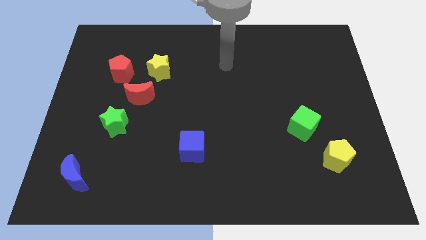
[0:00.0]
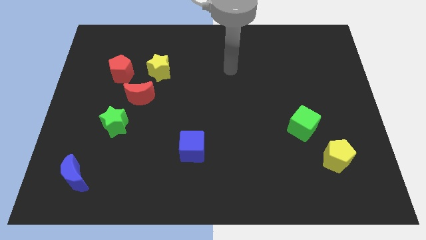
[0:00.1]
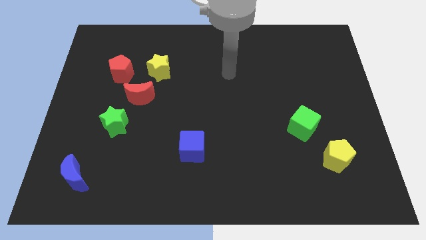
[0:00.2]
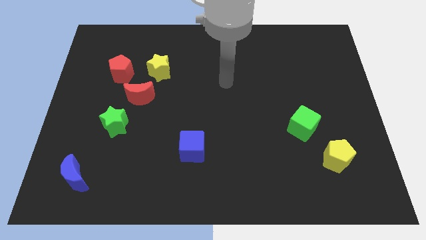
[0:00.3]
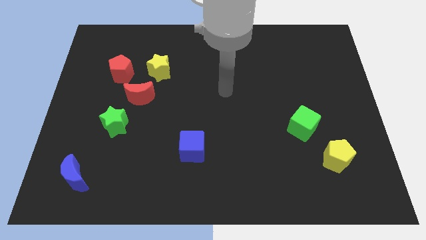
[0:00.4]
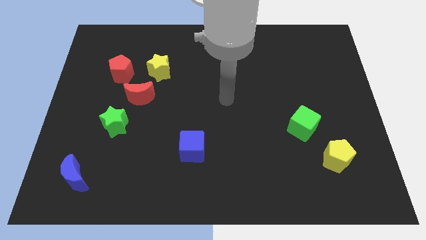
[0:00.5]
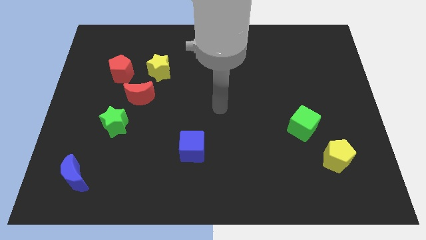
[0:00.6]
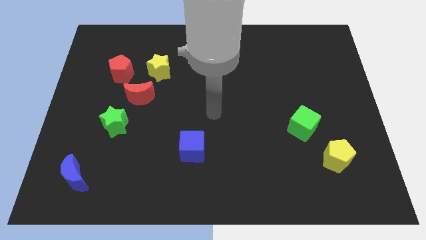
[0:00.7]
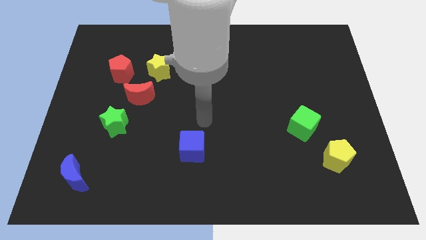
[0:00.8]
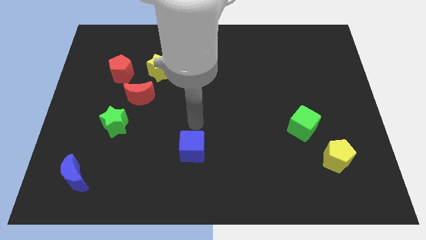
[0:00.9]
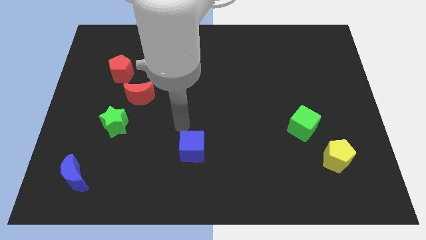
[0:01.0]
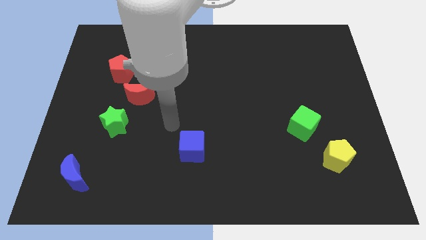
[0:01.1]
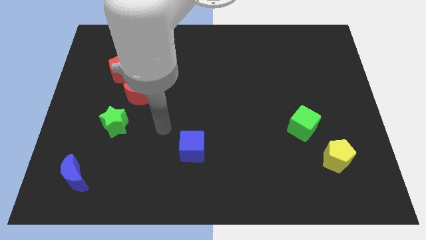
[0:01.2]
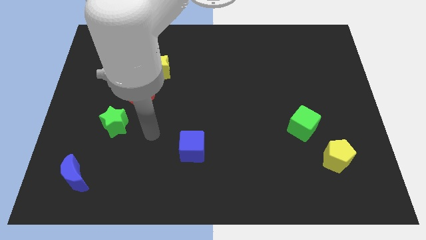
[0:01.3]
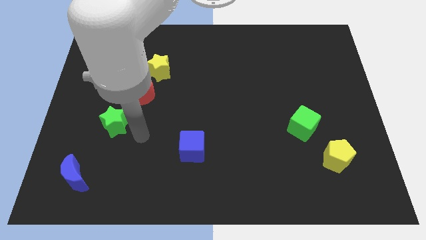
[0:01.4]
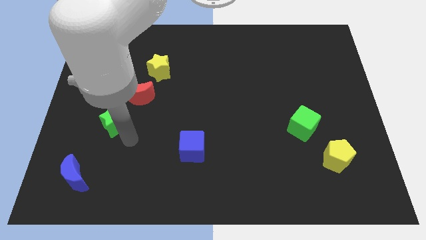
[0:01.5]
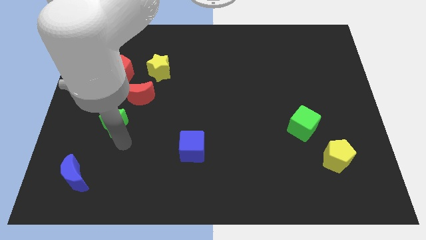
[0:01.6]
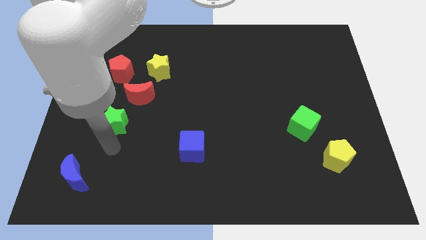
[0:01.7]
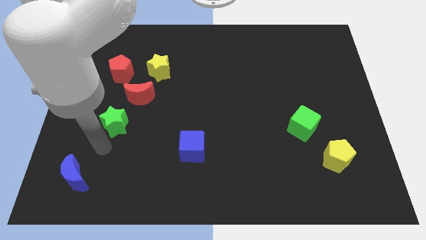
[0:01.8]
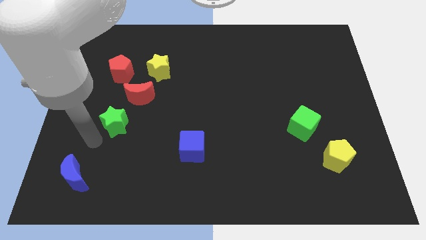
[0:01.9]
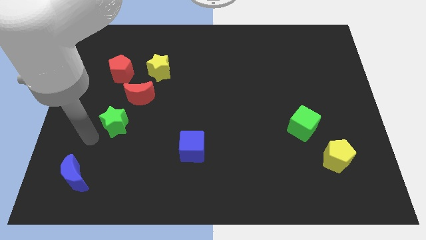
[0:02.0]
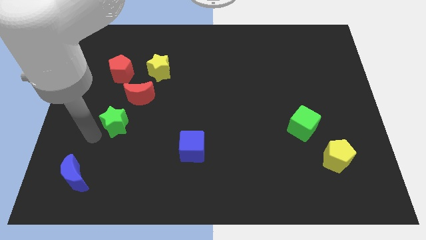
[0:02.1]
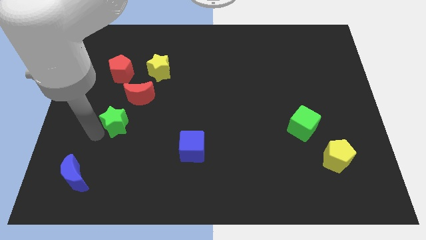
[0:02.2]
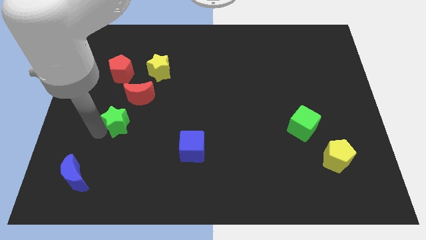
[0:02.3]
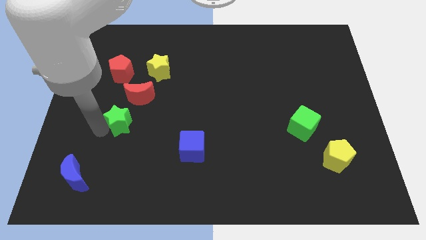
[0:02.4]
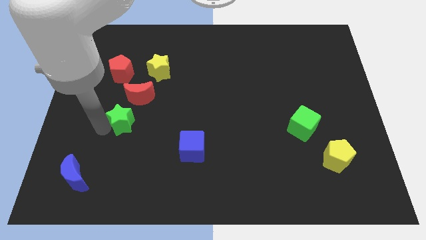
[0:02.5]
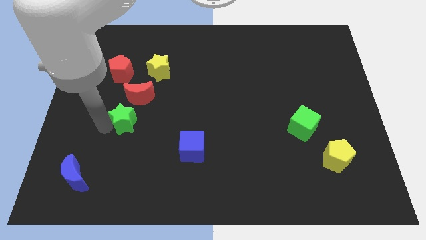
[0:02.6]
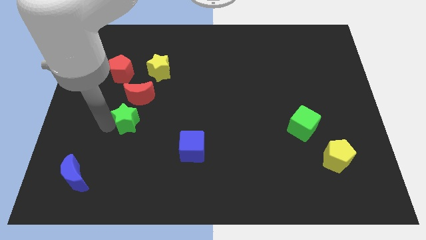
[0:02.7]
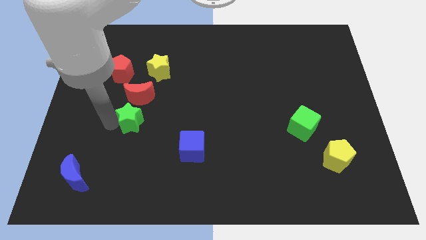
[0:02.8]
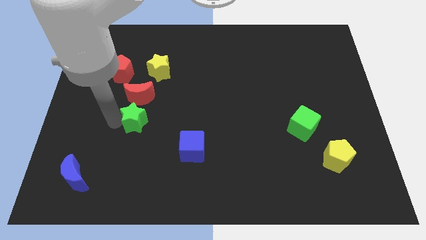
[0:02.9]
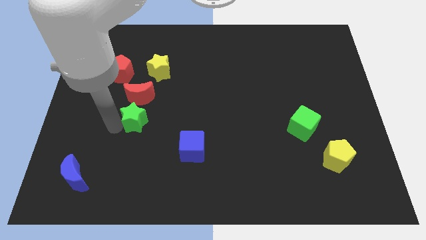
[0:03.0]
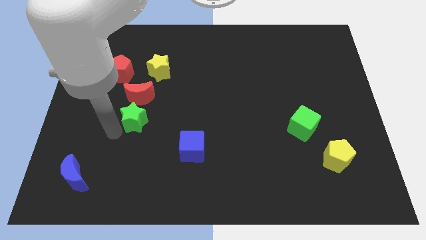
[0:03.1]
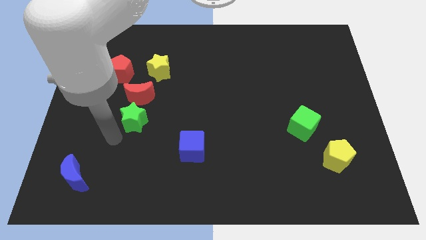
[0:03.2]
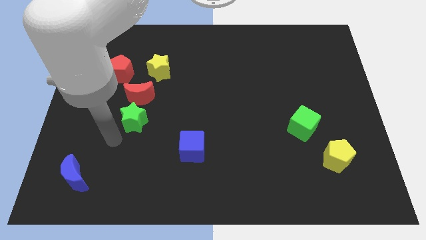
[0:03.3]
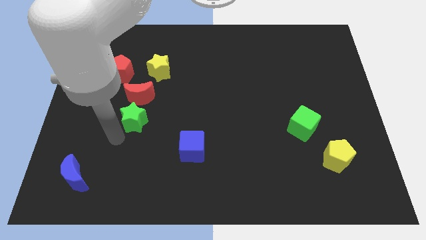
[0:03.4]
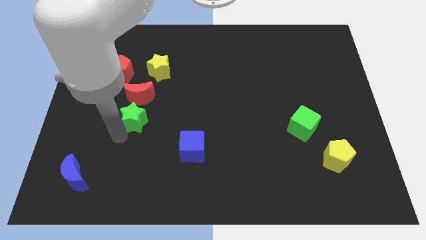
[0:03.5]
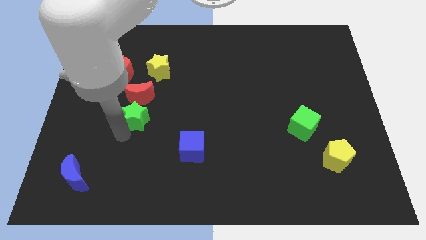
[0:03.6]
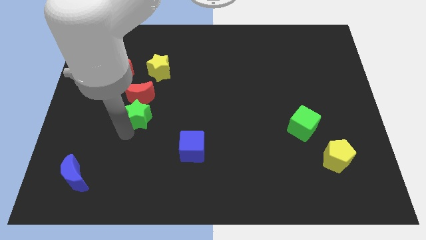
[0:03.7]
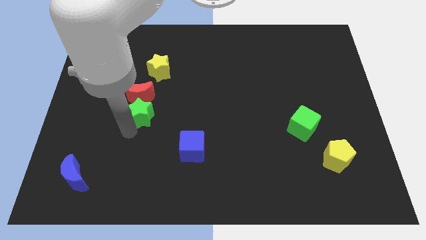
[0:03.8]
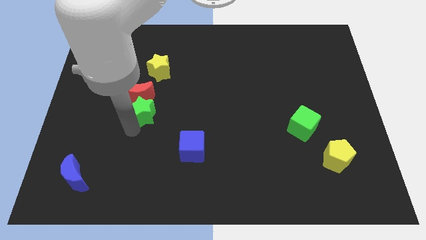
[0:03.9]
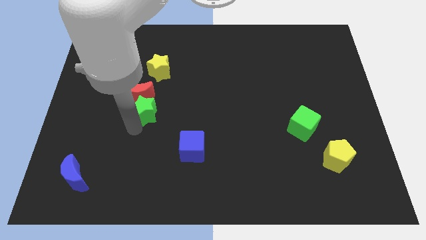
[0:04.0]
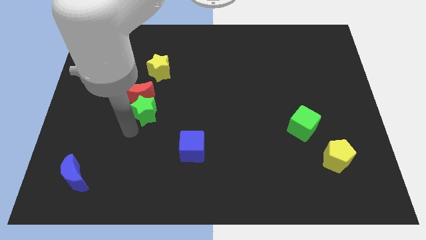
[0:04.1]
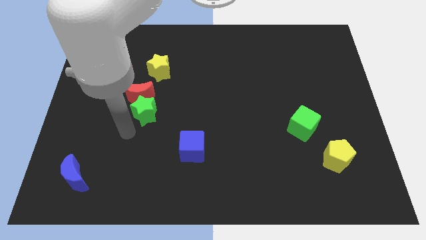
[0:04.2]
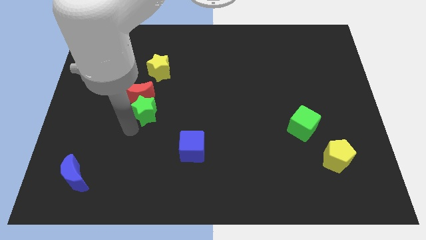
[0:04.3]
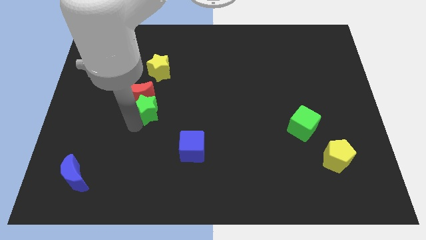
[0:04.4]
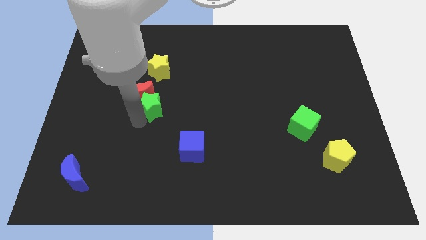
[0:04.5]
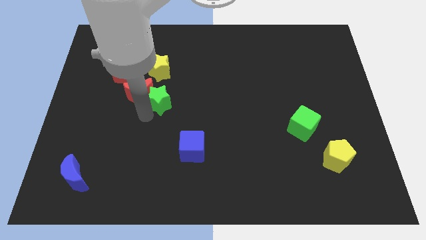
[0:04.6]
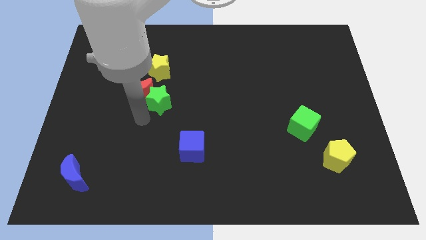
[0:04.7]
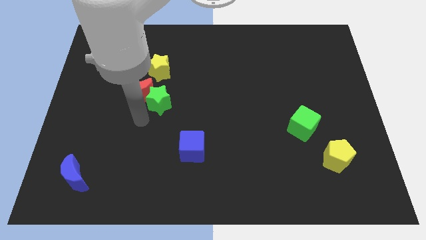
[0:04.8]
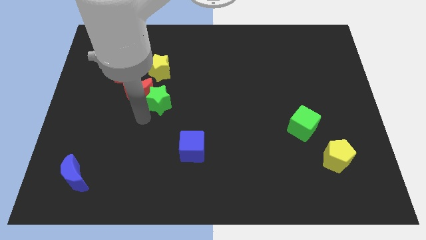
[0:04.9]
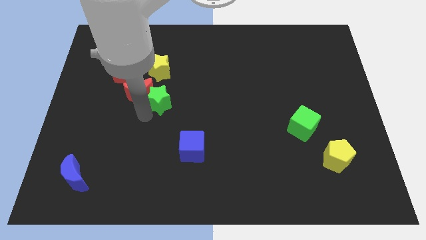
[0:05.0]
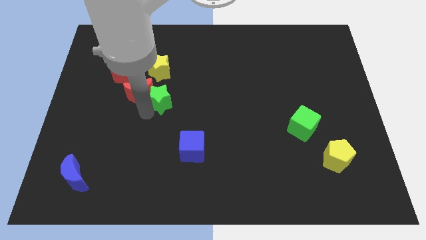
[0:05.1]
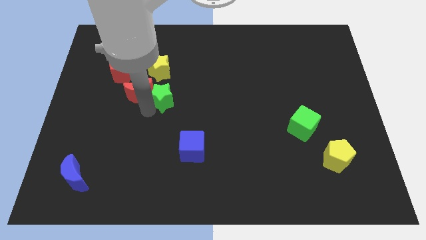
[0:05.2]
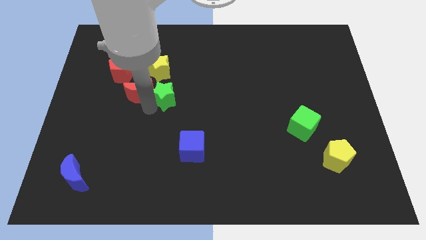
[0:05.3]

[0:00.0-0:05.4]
slide the green star to the bottom right of the yellow star

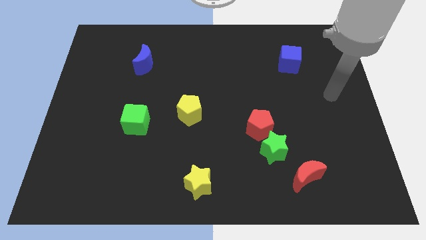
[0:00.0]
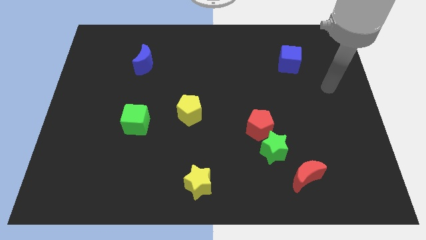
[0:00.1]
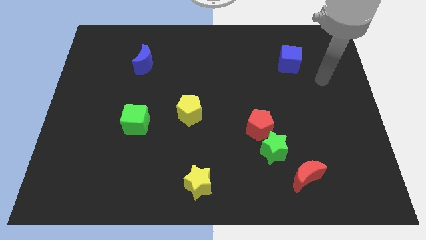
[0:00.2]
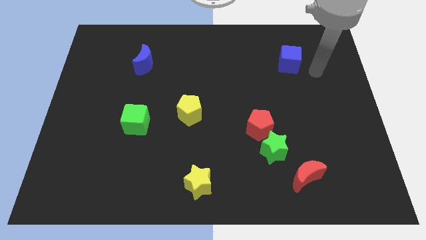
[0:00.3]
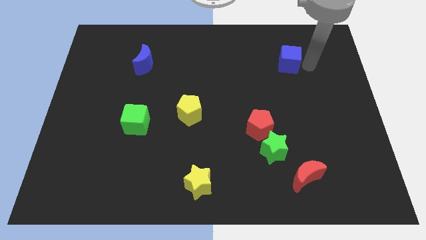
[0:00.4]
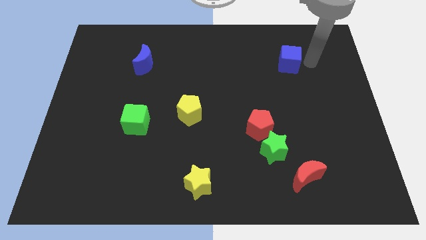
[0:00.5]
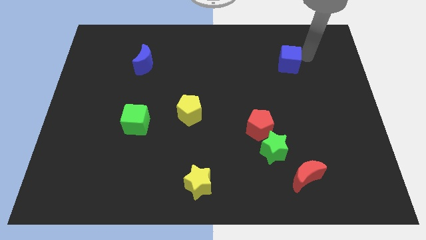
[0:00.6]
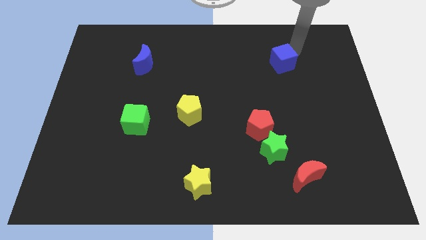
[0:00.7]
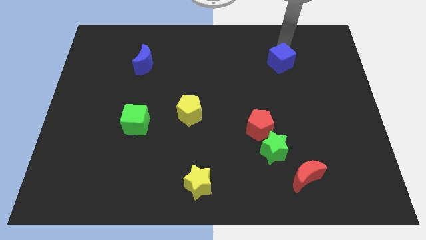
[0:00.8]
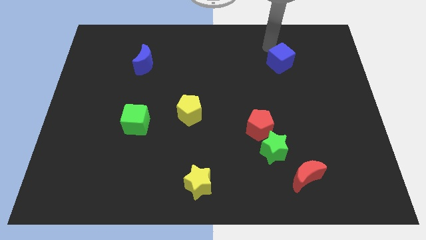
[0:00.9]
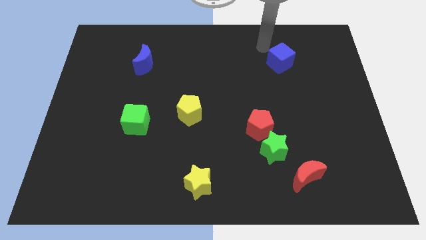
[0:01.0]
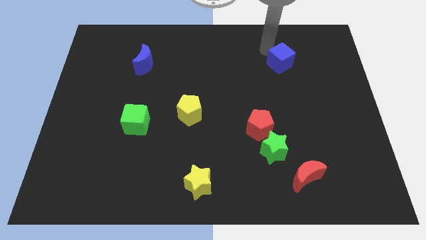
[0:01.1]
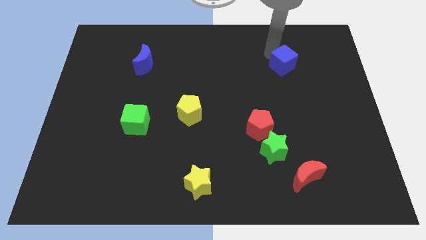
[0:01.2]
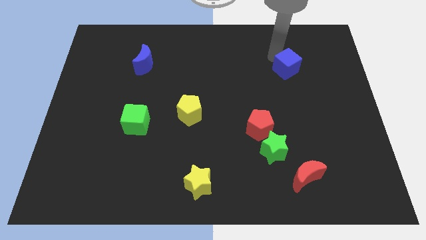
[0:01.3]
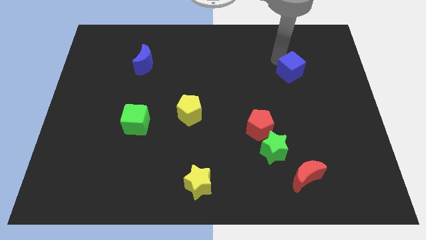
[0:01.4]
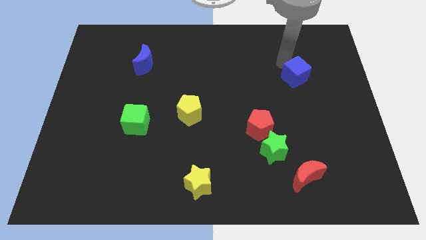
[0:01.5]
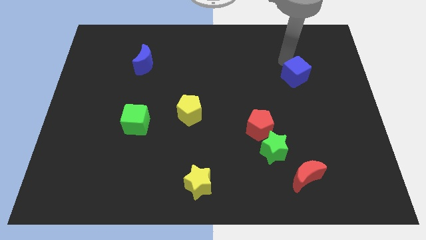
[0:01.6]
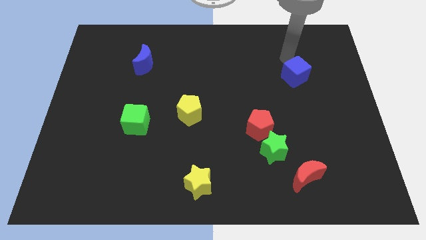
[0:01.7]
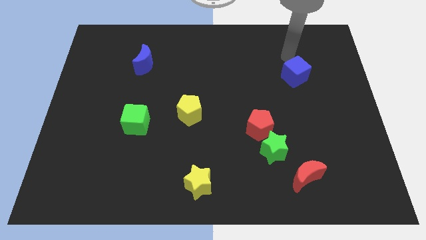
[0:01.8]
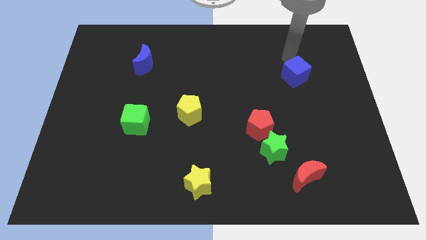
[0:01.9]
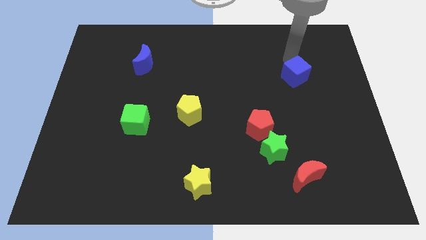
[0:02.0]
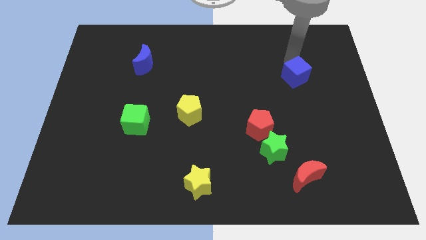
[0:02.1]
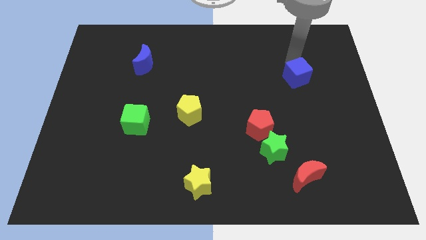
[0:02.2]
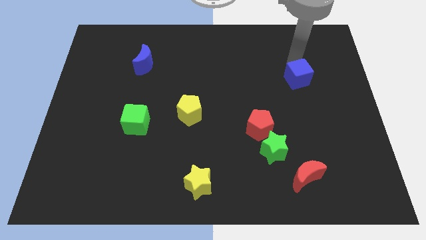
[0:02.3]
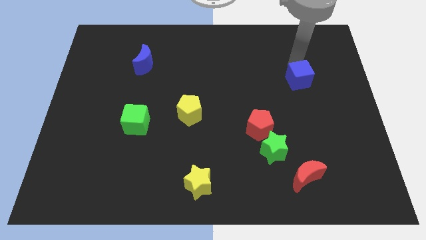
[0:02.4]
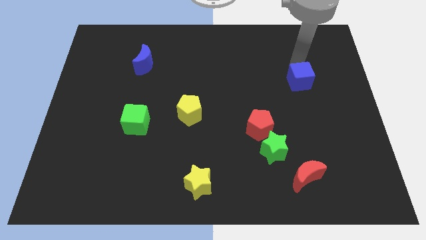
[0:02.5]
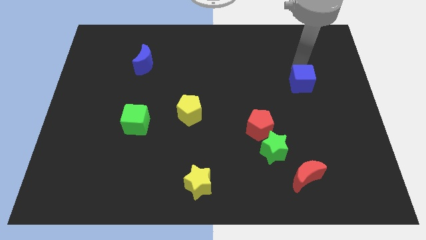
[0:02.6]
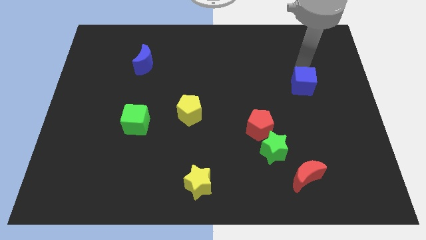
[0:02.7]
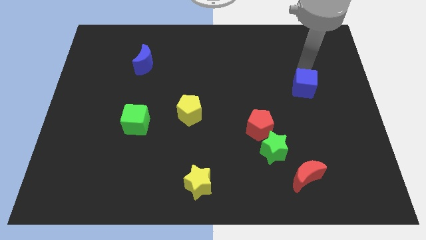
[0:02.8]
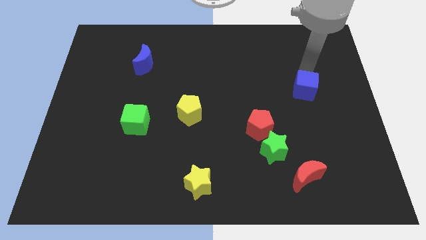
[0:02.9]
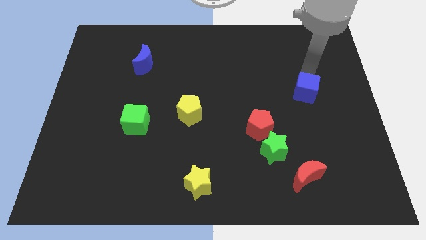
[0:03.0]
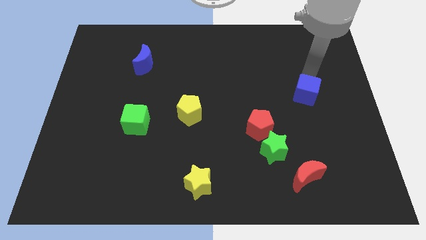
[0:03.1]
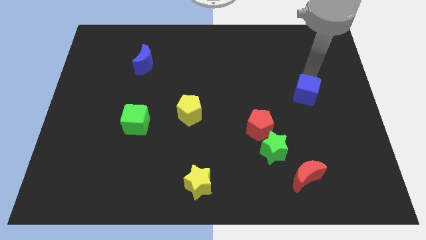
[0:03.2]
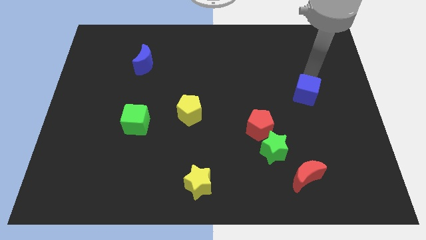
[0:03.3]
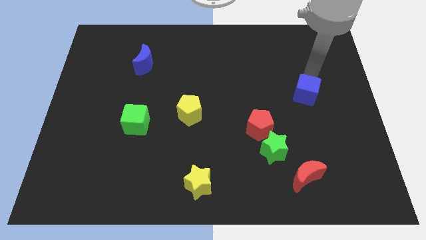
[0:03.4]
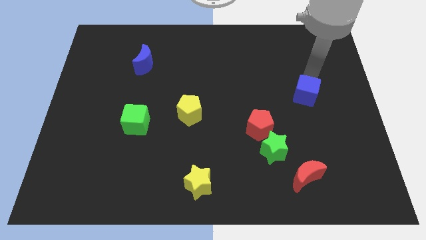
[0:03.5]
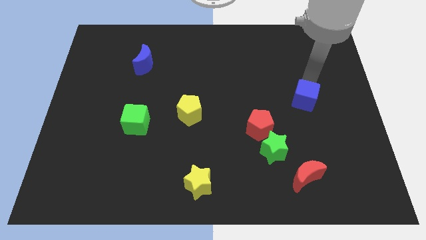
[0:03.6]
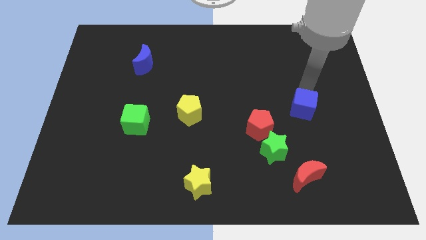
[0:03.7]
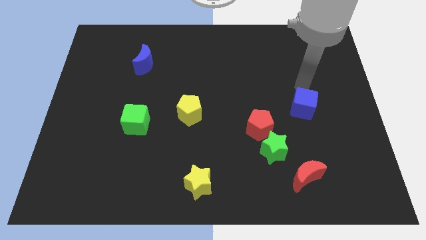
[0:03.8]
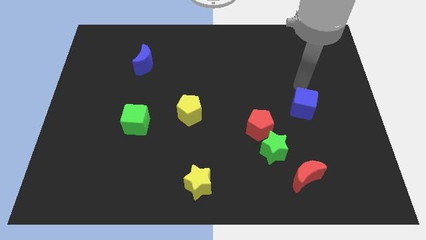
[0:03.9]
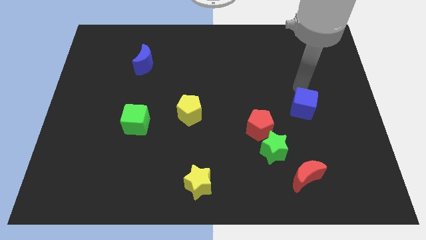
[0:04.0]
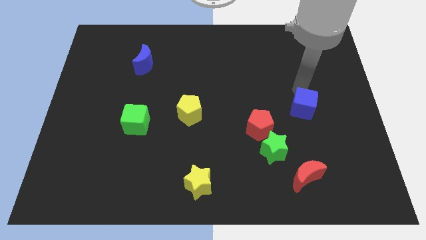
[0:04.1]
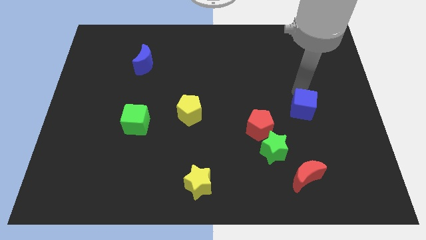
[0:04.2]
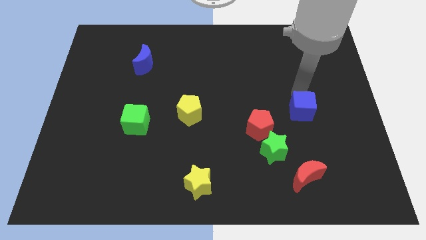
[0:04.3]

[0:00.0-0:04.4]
push the blue cube just right of the red pentagon
